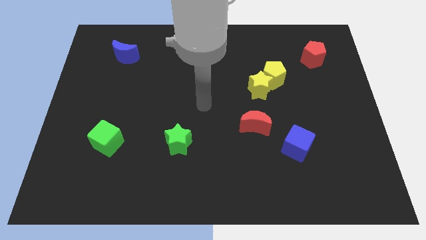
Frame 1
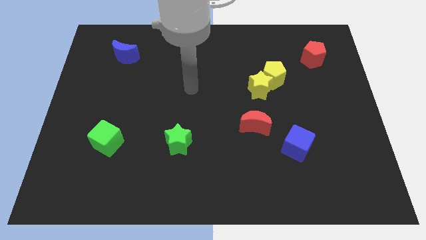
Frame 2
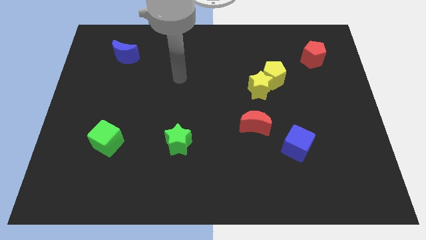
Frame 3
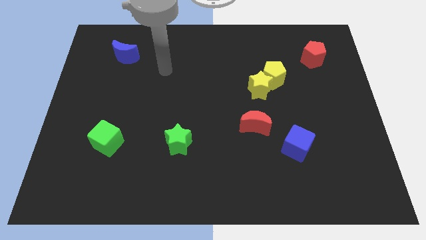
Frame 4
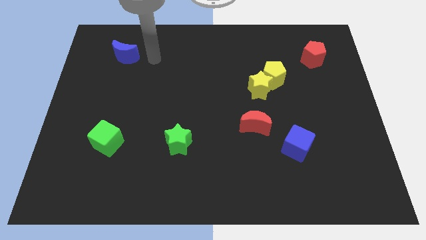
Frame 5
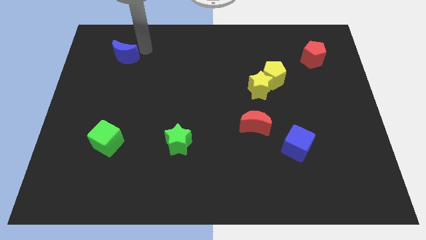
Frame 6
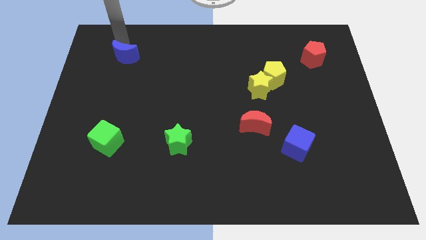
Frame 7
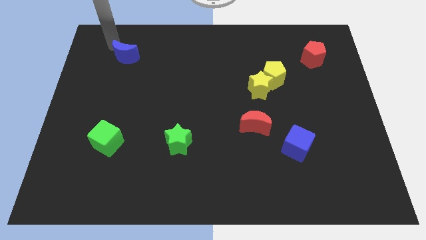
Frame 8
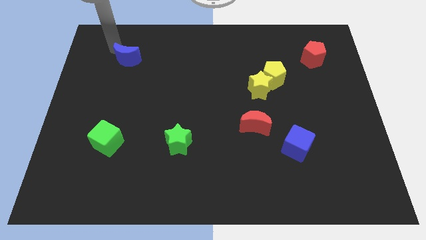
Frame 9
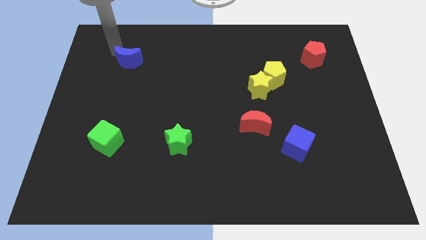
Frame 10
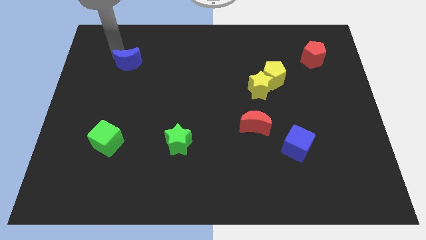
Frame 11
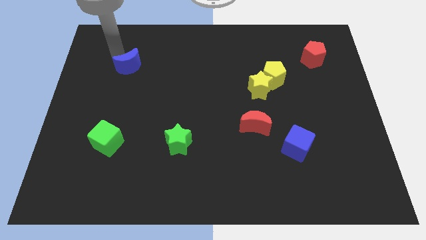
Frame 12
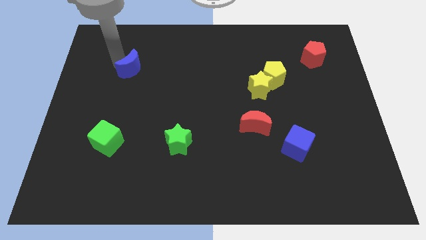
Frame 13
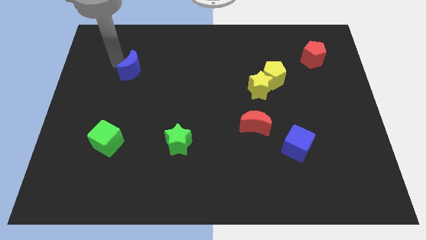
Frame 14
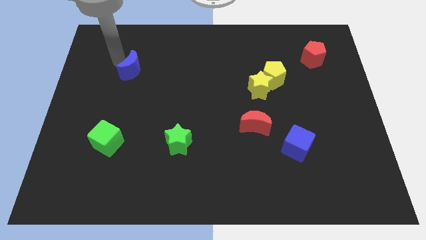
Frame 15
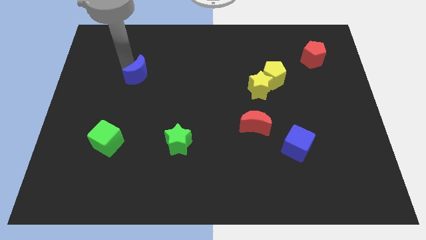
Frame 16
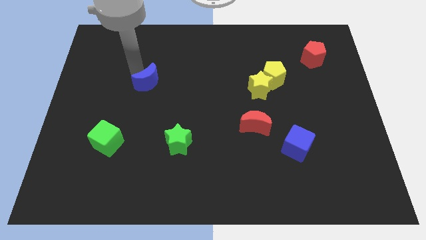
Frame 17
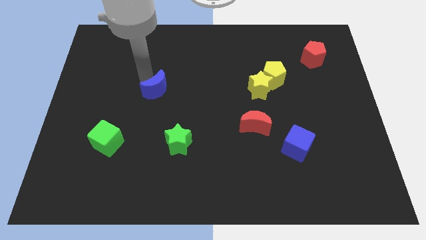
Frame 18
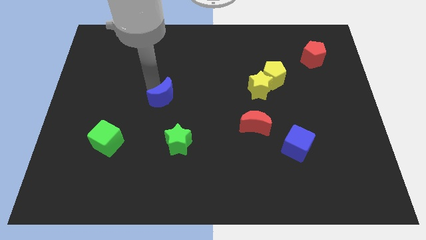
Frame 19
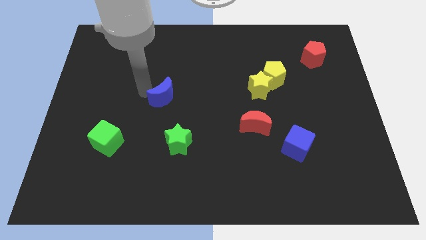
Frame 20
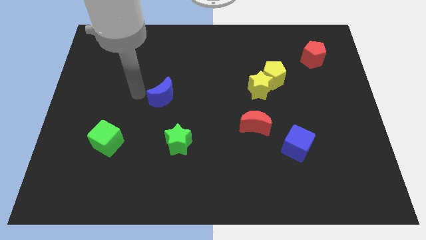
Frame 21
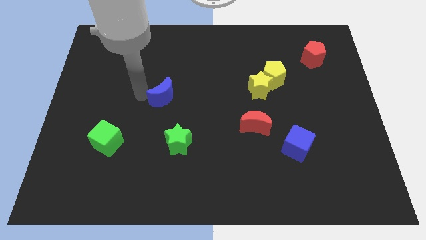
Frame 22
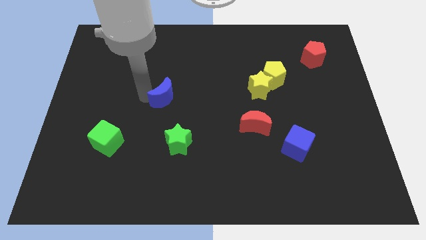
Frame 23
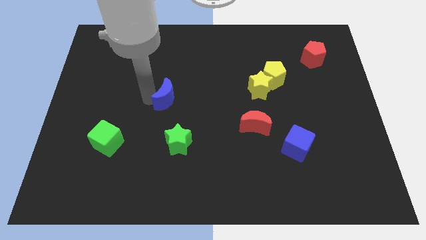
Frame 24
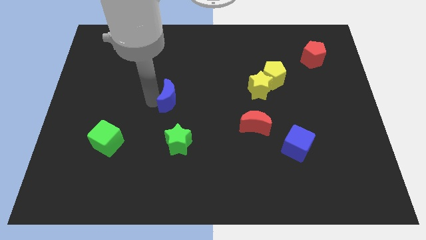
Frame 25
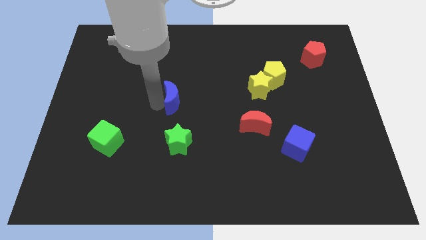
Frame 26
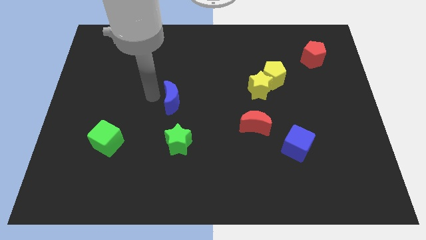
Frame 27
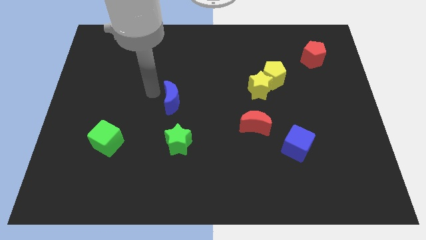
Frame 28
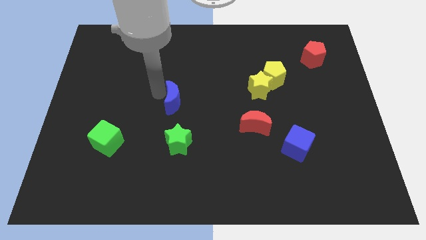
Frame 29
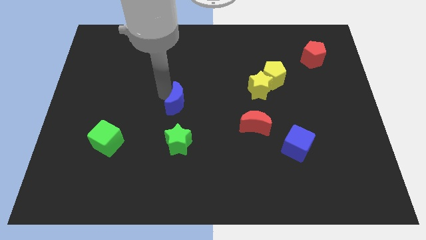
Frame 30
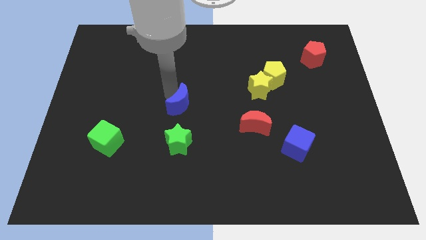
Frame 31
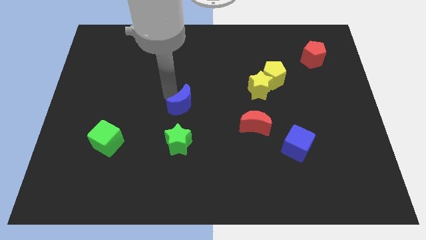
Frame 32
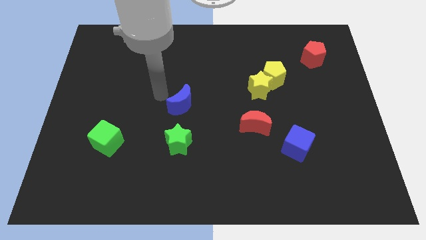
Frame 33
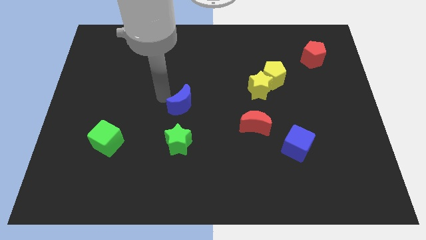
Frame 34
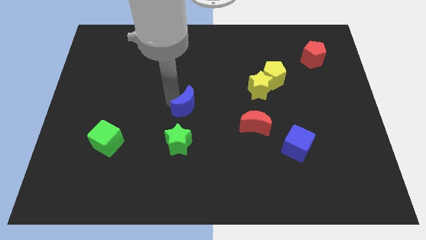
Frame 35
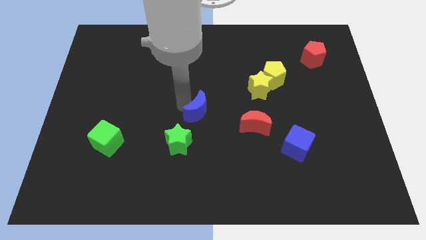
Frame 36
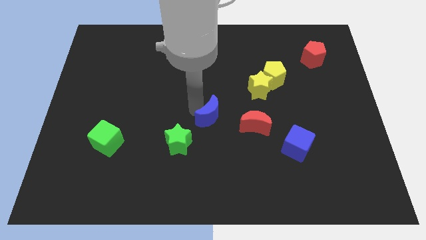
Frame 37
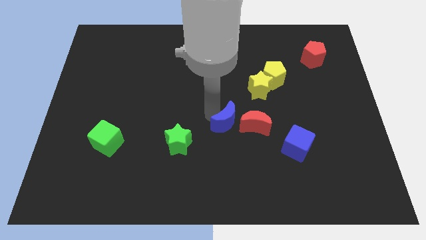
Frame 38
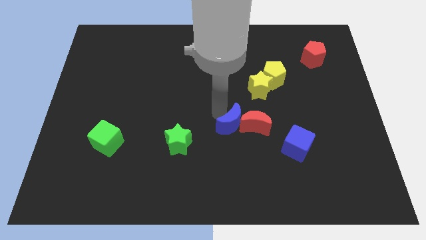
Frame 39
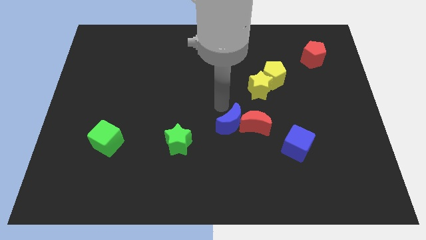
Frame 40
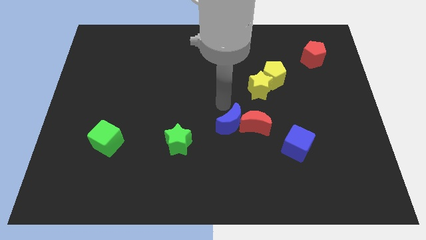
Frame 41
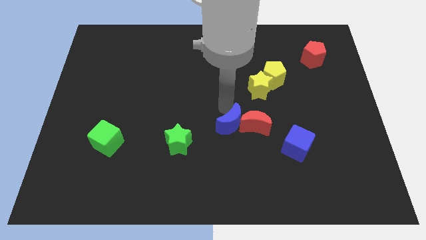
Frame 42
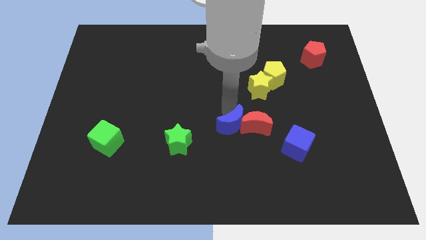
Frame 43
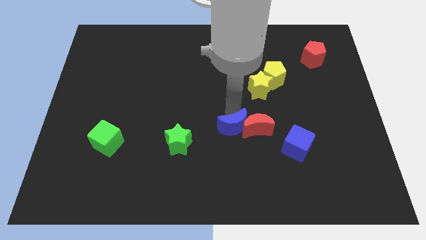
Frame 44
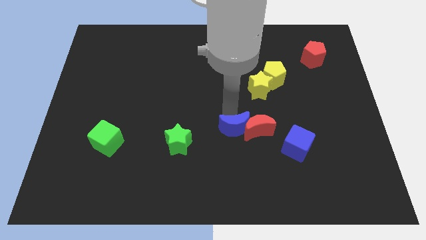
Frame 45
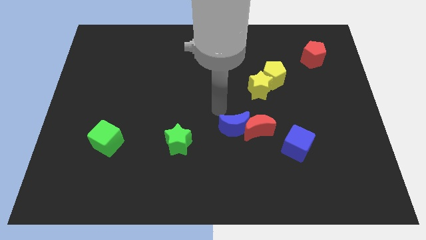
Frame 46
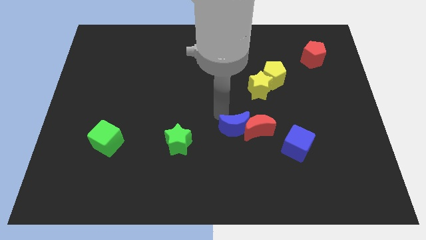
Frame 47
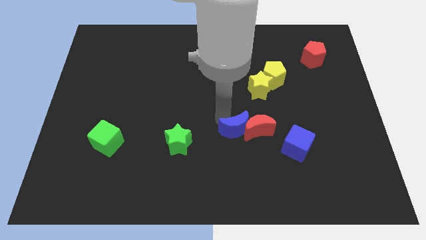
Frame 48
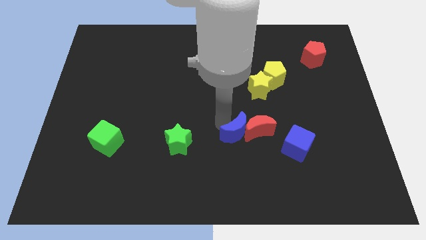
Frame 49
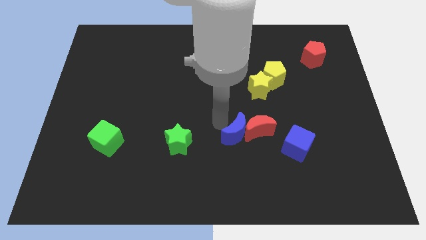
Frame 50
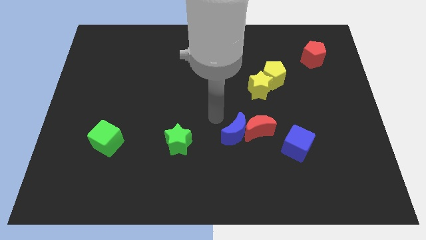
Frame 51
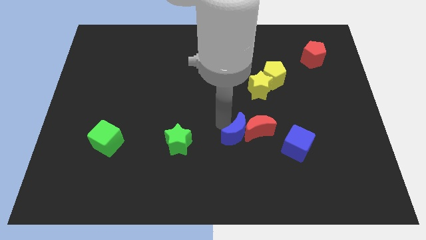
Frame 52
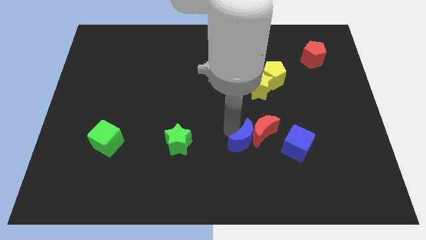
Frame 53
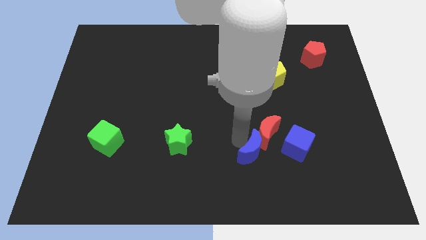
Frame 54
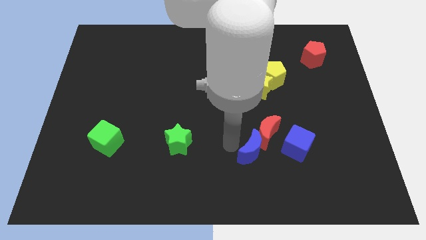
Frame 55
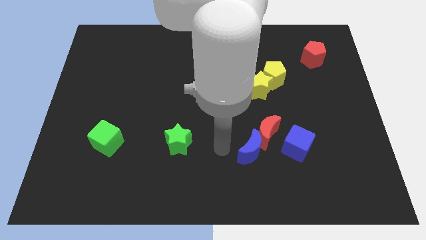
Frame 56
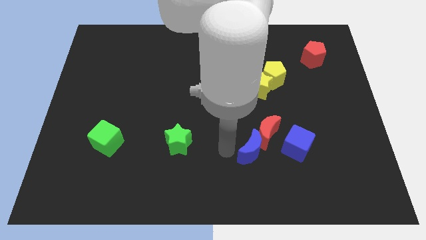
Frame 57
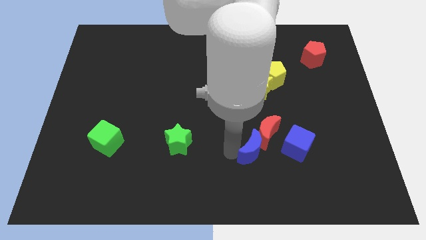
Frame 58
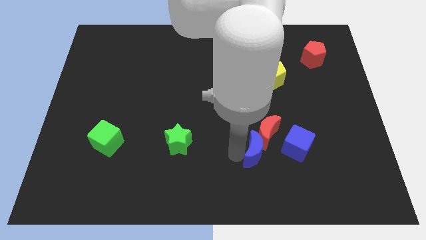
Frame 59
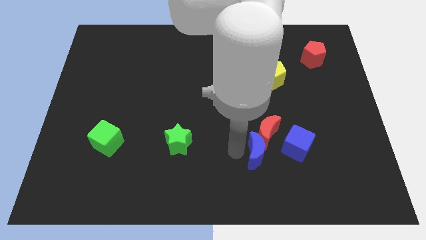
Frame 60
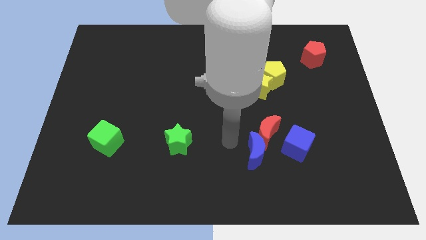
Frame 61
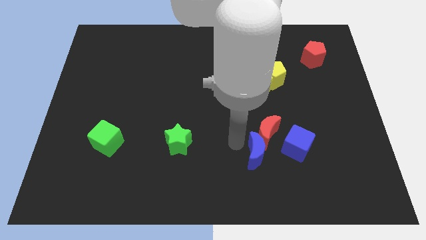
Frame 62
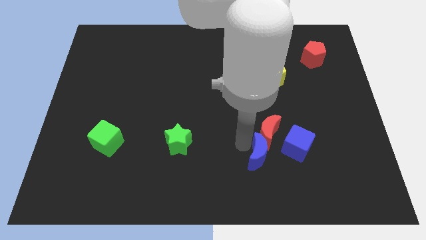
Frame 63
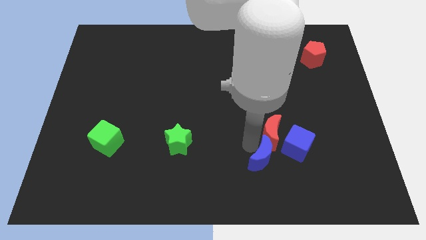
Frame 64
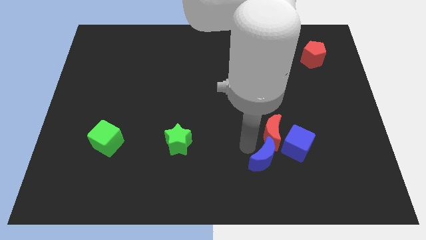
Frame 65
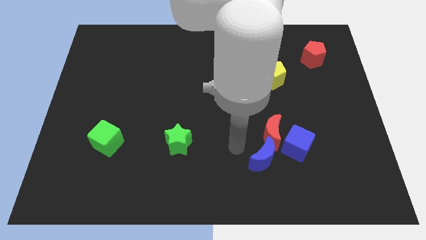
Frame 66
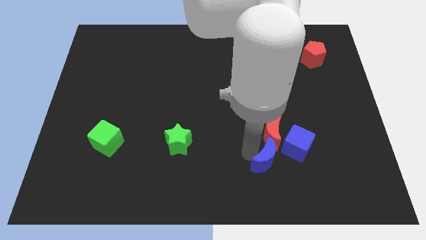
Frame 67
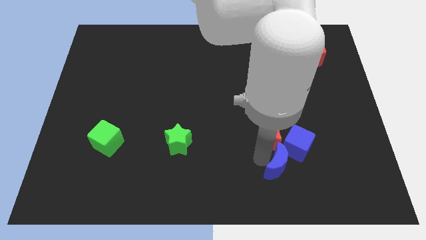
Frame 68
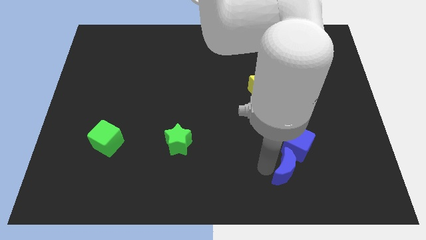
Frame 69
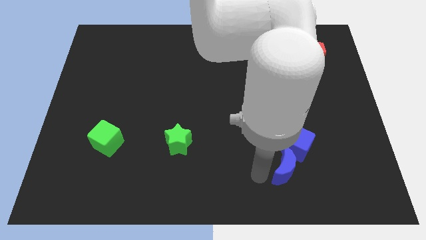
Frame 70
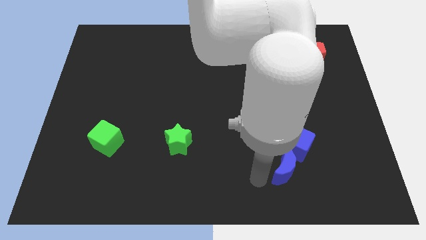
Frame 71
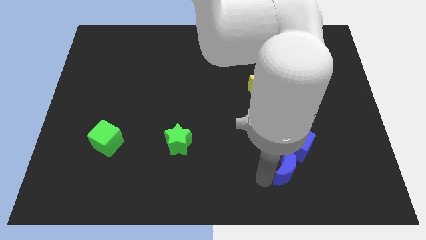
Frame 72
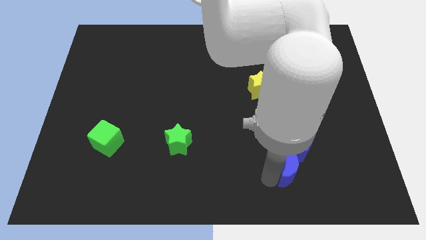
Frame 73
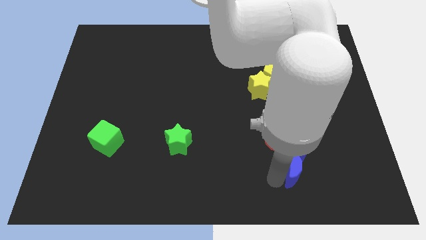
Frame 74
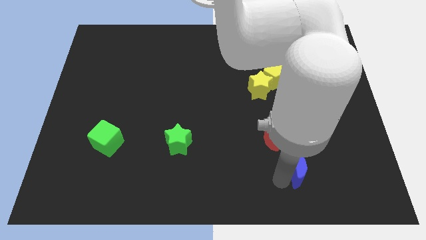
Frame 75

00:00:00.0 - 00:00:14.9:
move the blue moon diagonally down and to the right of the blue cube
